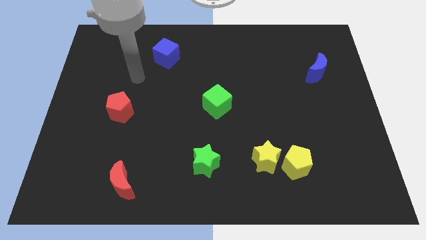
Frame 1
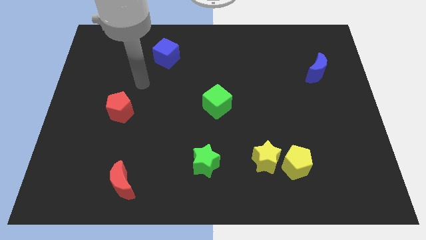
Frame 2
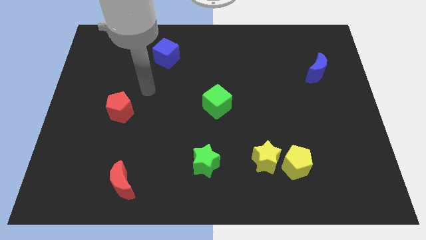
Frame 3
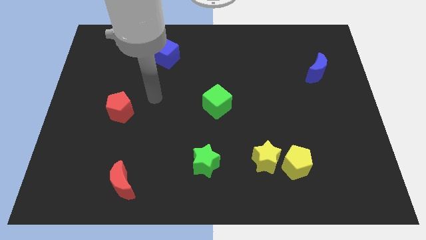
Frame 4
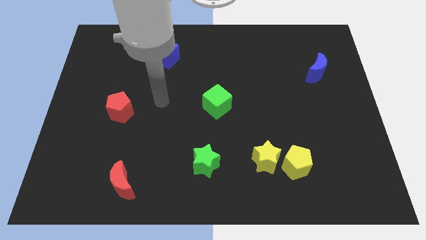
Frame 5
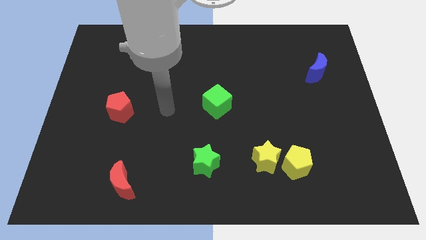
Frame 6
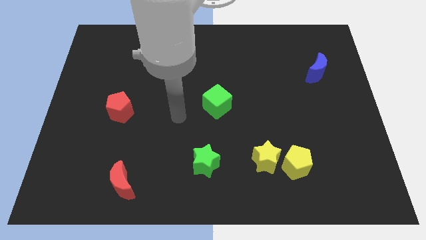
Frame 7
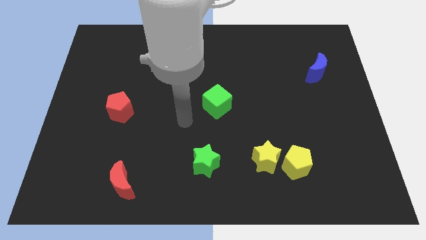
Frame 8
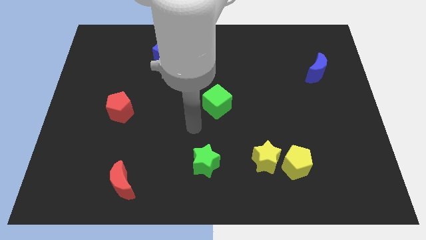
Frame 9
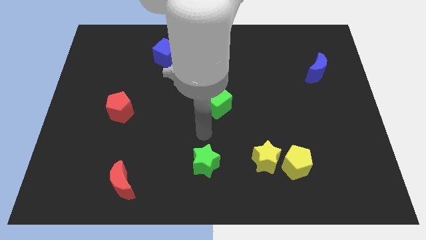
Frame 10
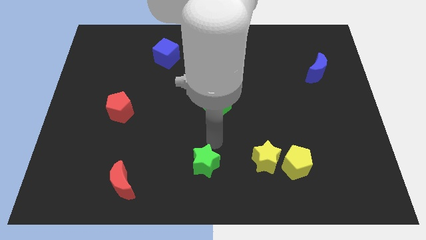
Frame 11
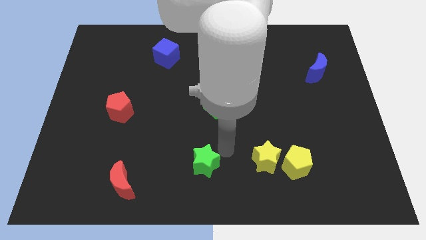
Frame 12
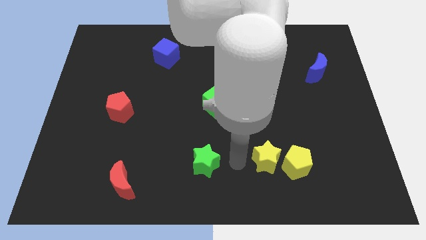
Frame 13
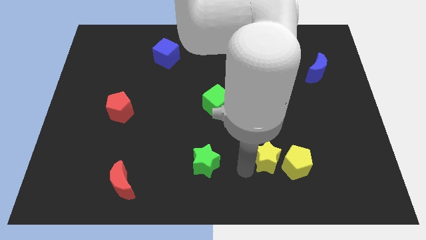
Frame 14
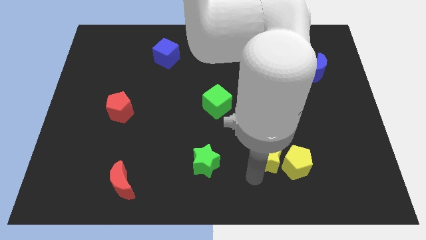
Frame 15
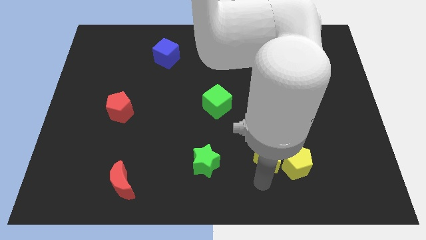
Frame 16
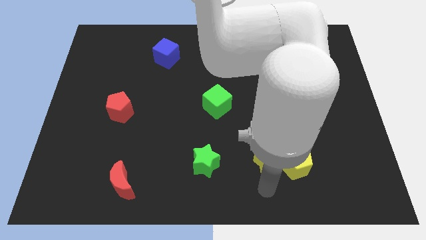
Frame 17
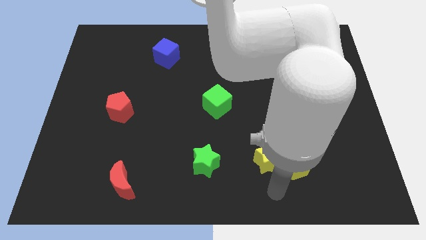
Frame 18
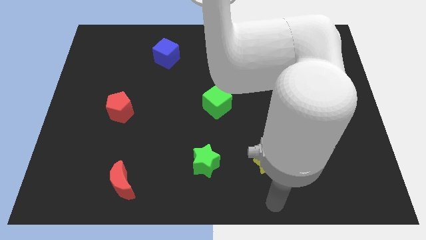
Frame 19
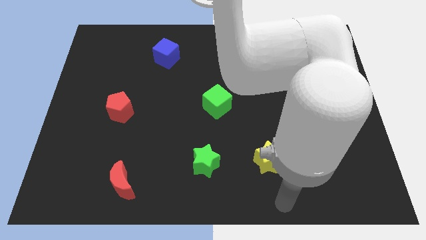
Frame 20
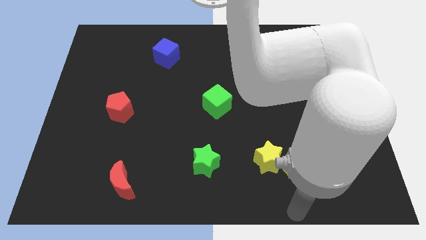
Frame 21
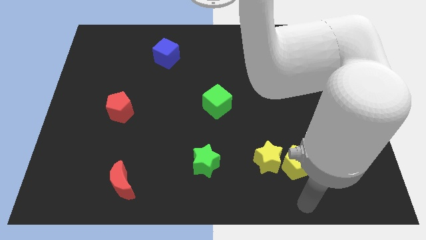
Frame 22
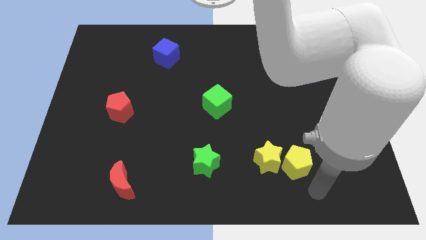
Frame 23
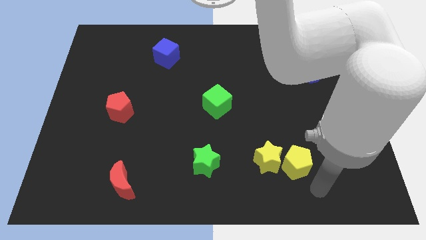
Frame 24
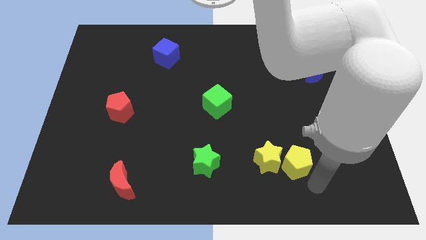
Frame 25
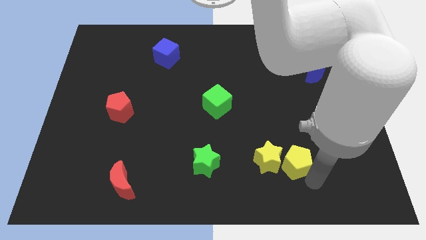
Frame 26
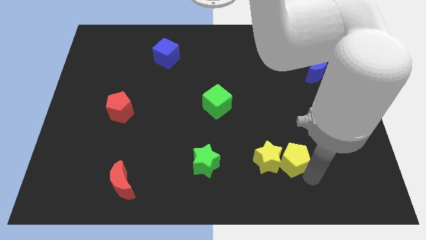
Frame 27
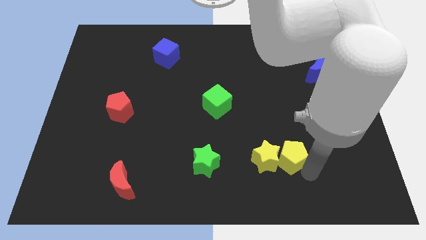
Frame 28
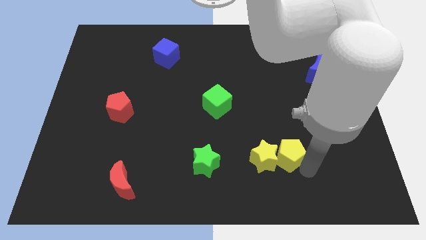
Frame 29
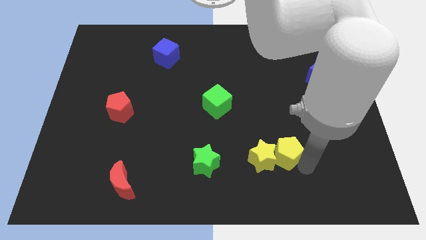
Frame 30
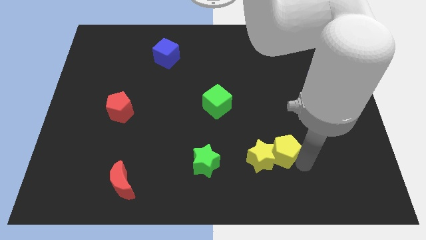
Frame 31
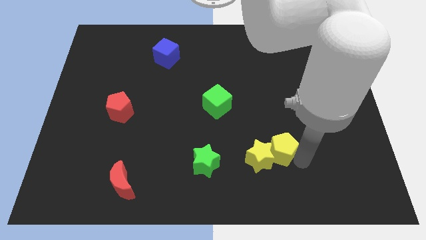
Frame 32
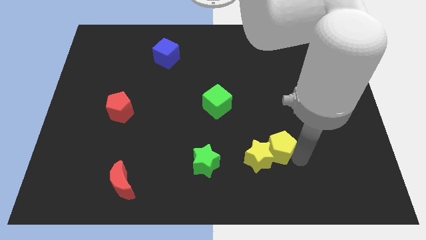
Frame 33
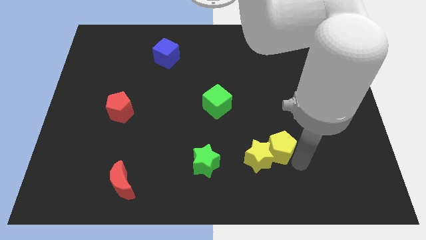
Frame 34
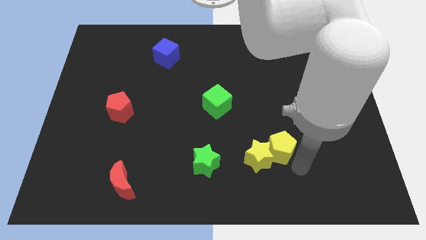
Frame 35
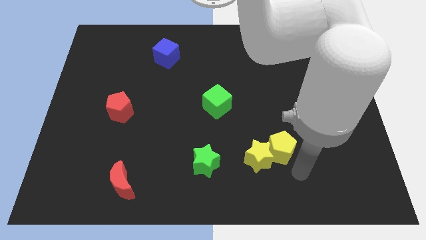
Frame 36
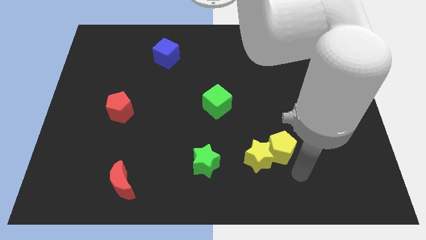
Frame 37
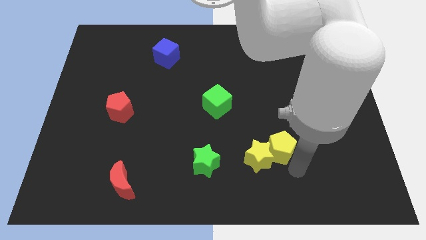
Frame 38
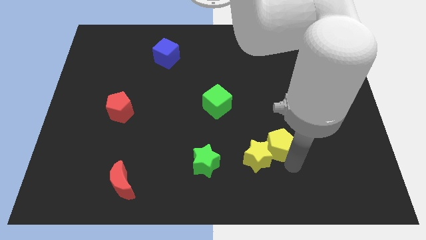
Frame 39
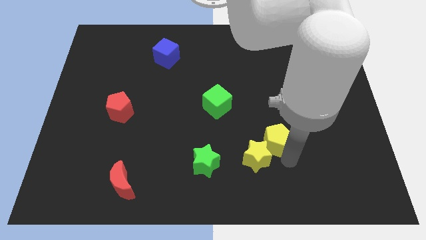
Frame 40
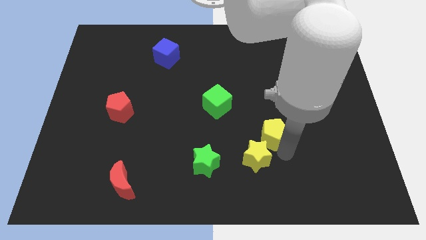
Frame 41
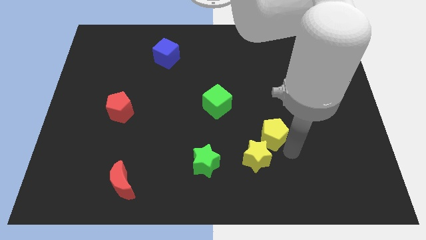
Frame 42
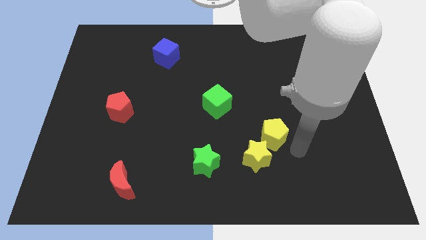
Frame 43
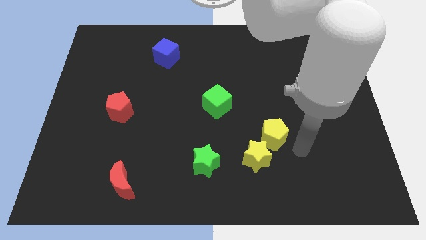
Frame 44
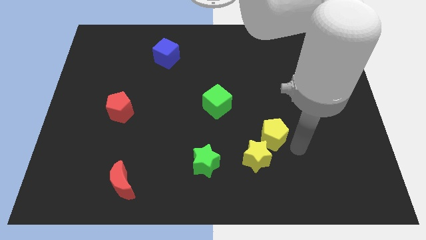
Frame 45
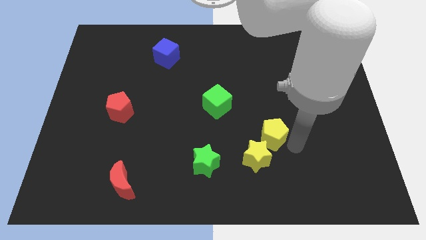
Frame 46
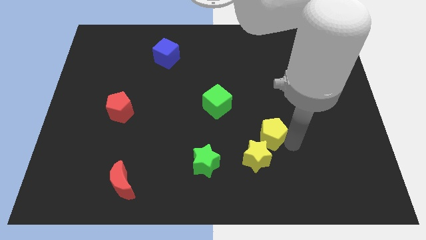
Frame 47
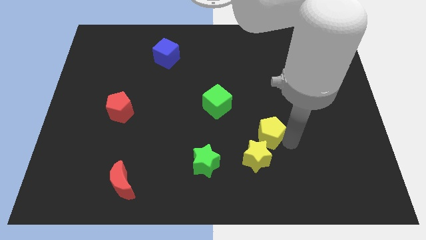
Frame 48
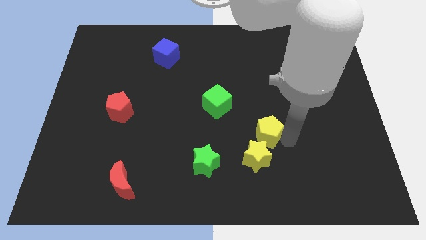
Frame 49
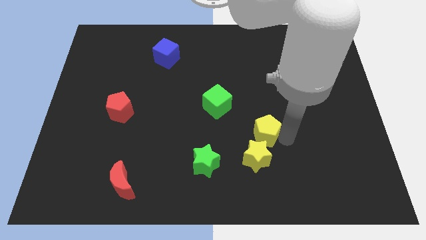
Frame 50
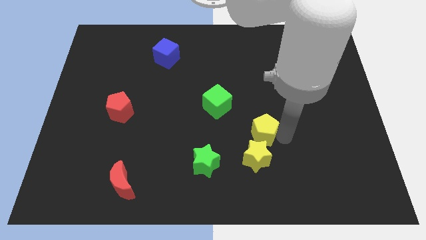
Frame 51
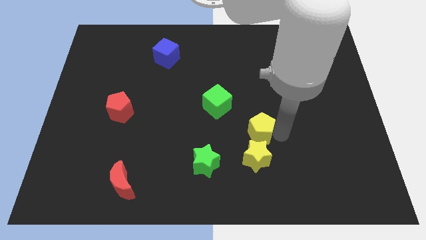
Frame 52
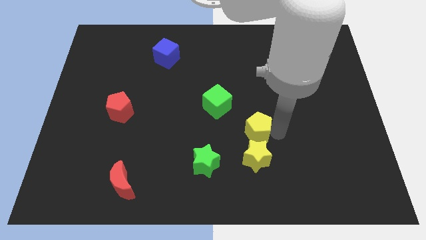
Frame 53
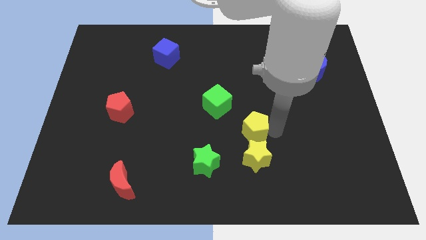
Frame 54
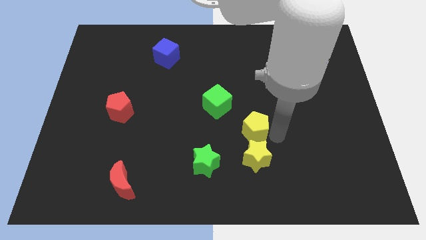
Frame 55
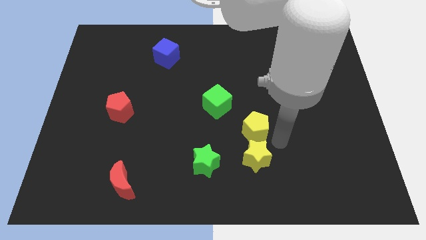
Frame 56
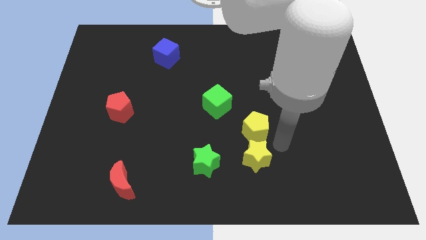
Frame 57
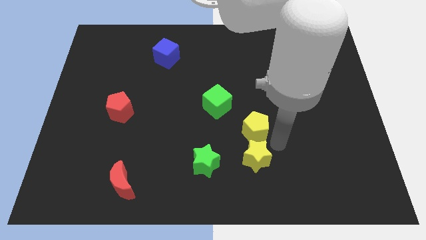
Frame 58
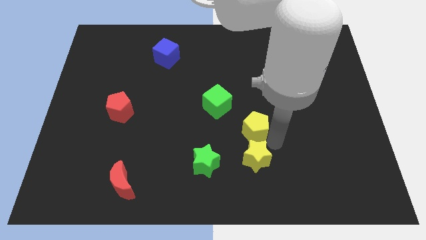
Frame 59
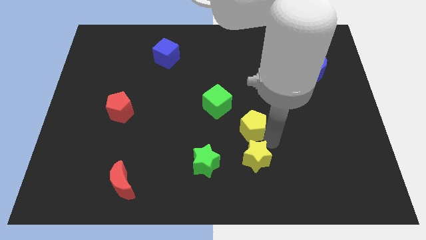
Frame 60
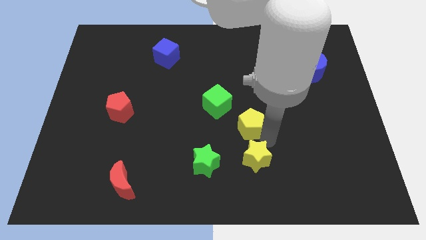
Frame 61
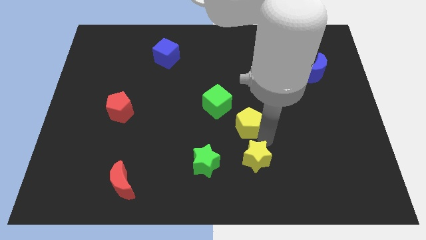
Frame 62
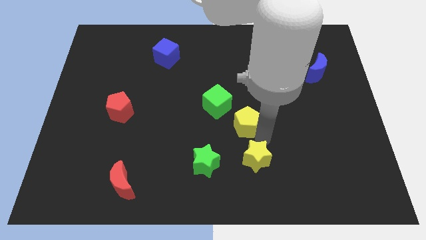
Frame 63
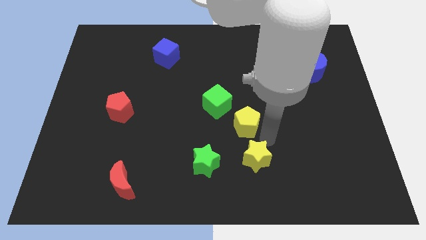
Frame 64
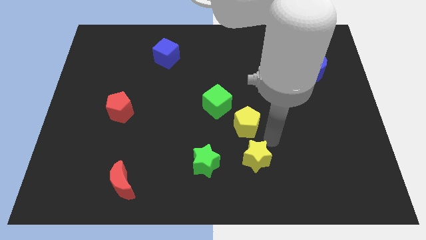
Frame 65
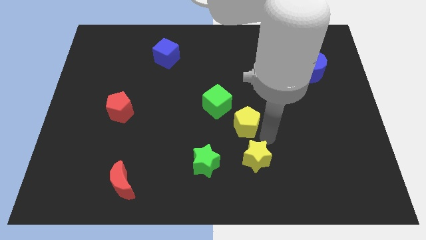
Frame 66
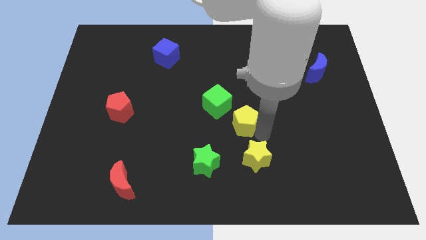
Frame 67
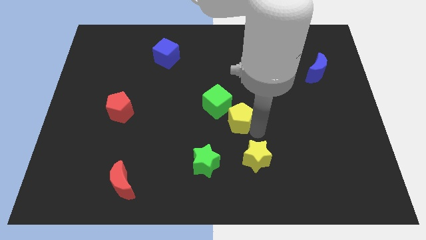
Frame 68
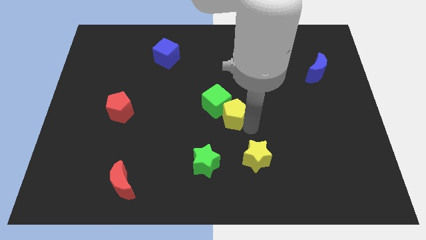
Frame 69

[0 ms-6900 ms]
put the yellow pentagon next to the green cube

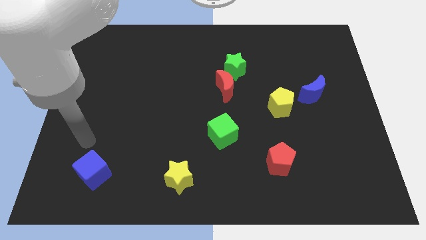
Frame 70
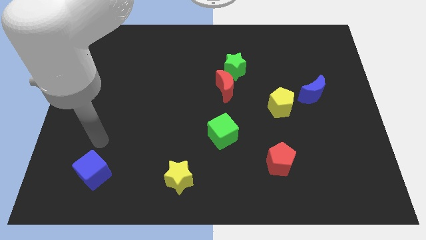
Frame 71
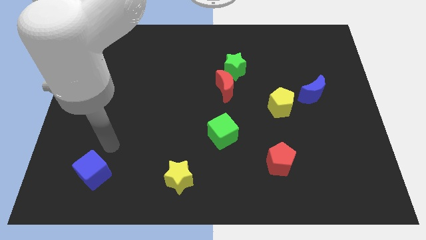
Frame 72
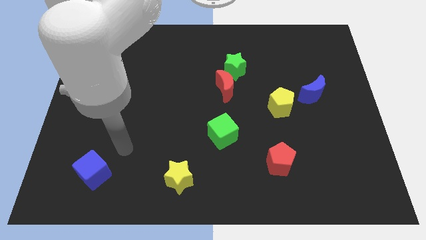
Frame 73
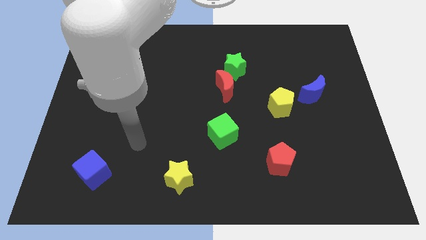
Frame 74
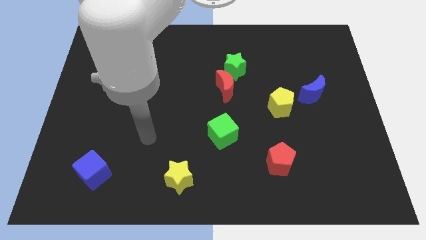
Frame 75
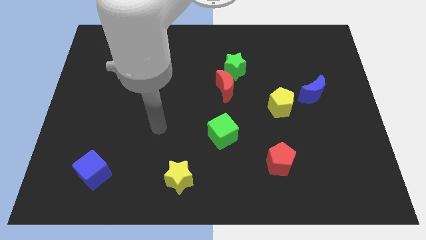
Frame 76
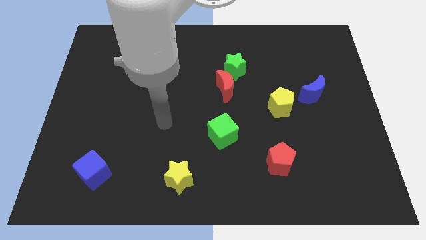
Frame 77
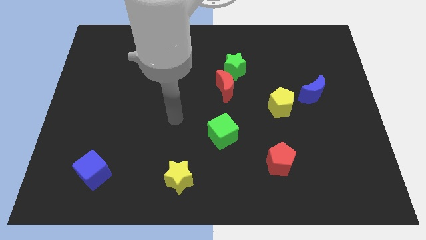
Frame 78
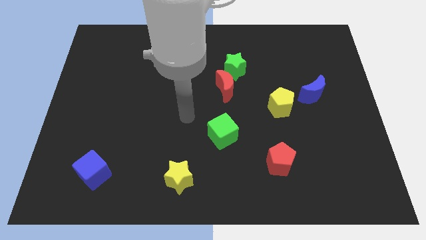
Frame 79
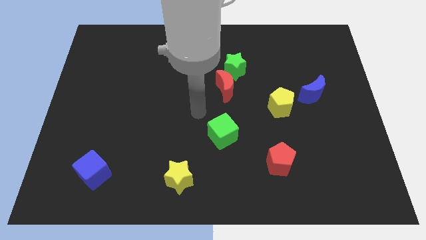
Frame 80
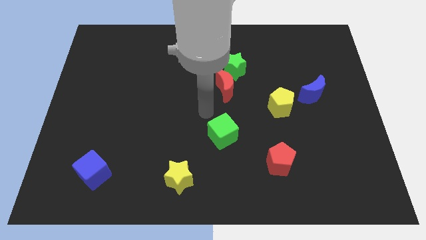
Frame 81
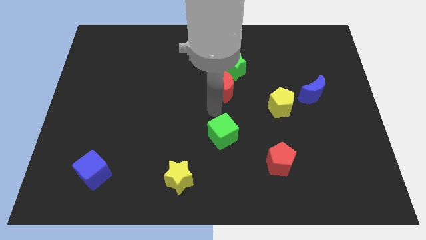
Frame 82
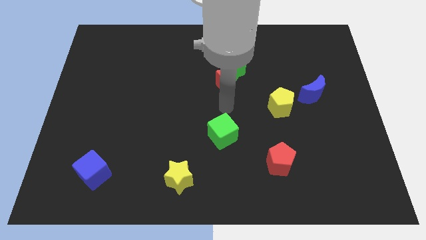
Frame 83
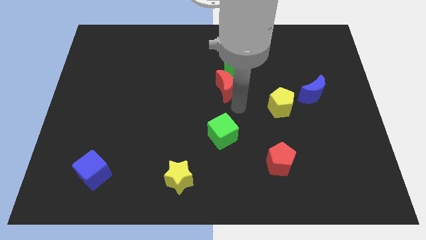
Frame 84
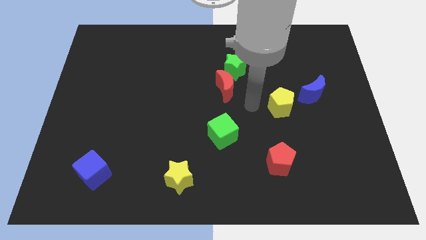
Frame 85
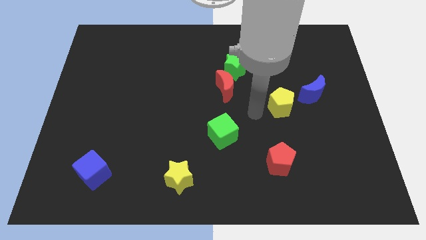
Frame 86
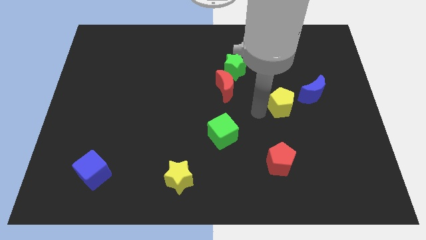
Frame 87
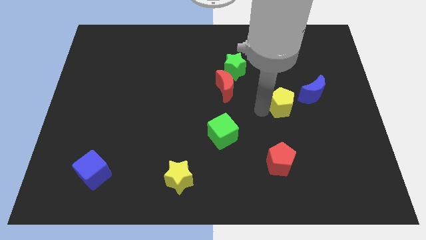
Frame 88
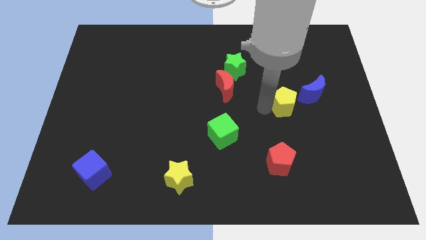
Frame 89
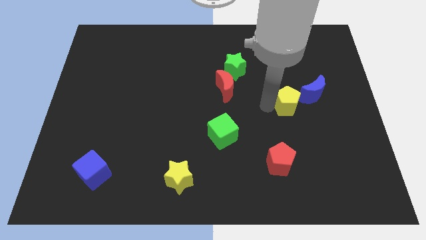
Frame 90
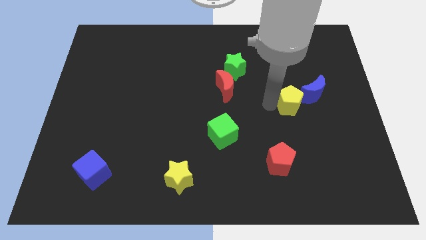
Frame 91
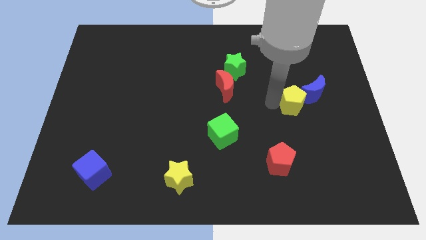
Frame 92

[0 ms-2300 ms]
put the yellow pentagon next to the blue moon
